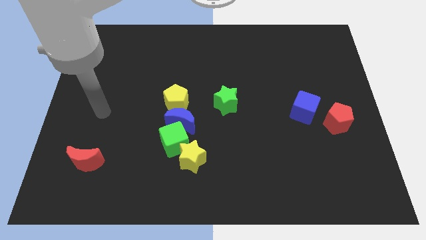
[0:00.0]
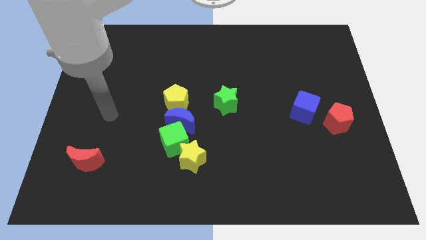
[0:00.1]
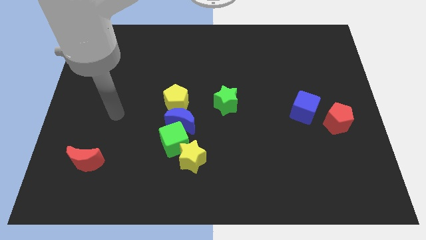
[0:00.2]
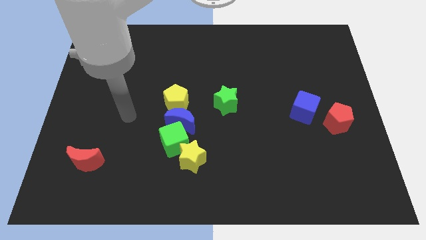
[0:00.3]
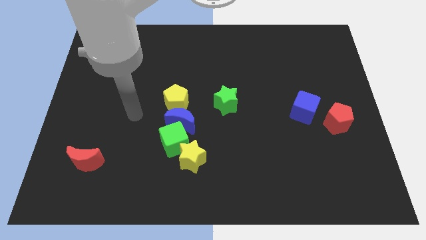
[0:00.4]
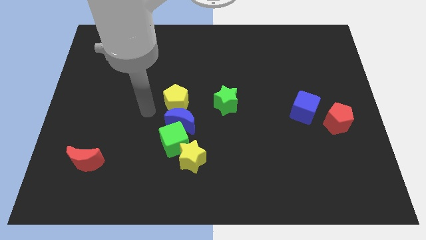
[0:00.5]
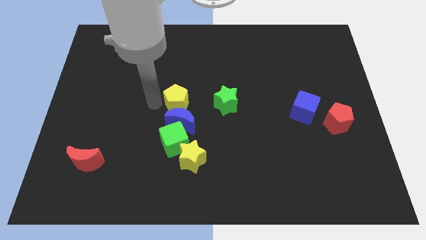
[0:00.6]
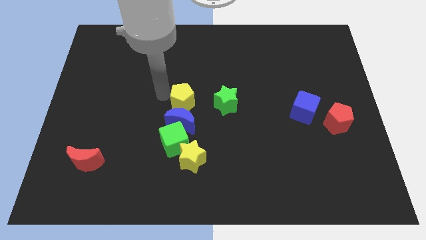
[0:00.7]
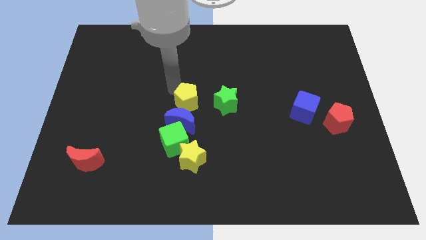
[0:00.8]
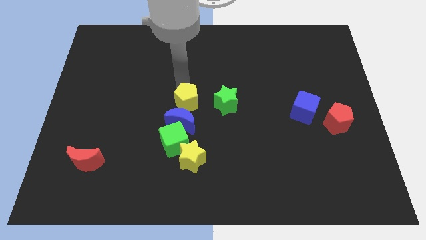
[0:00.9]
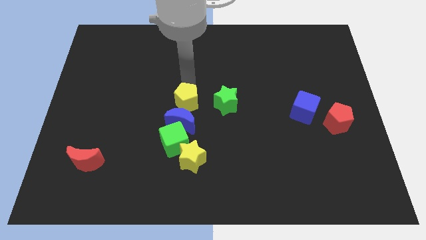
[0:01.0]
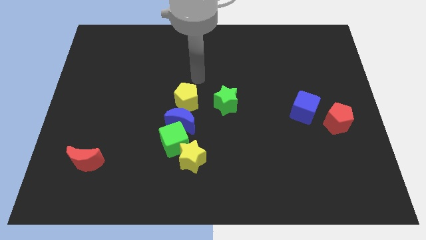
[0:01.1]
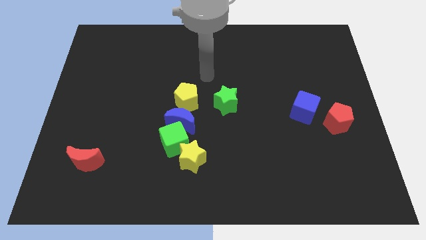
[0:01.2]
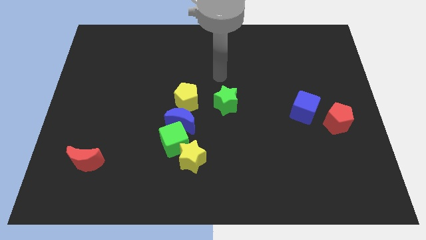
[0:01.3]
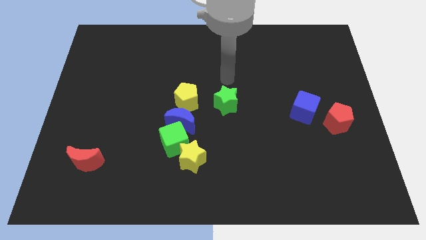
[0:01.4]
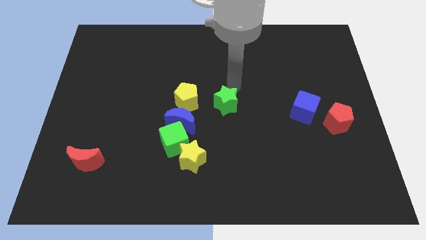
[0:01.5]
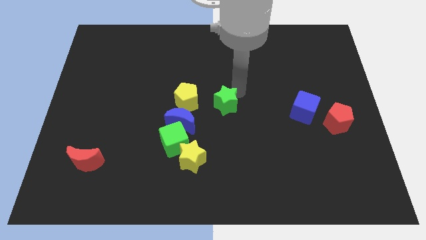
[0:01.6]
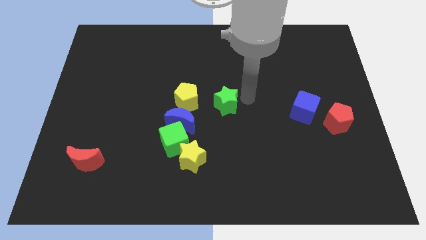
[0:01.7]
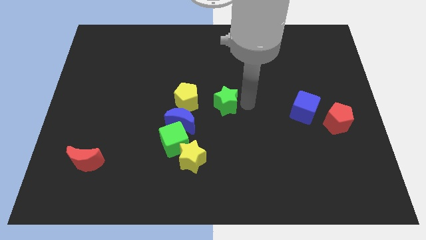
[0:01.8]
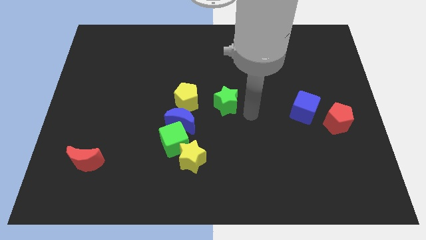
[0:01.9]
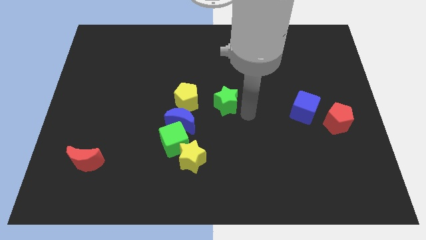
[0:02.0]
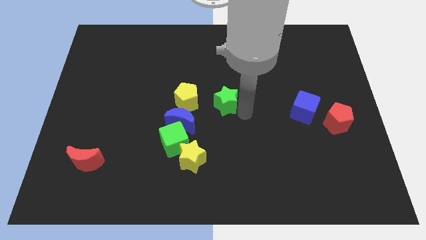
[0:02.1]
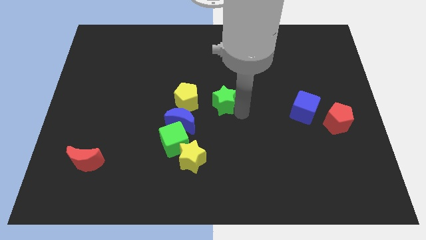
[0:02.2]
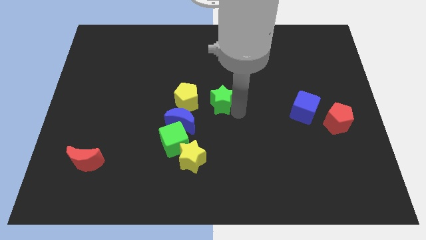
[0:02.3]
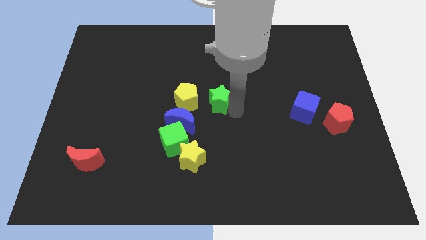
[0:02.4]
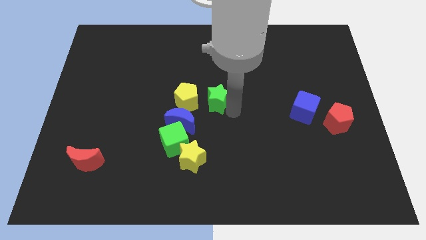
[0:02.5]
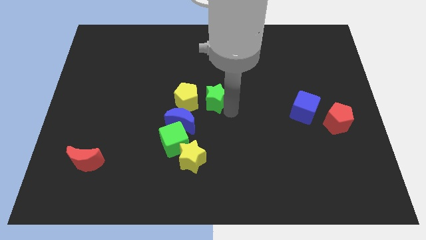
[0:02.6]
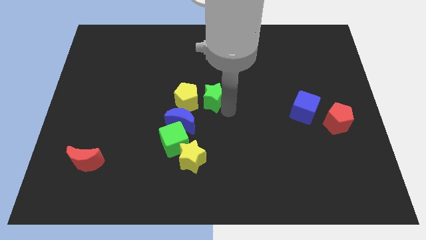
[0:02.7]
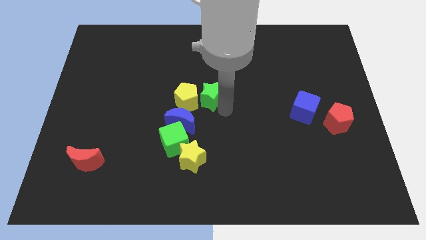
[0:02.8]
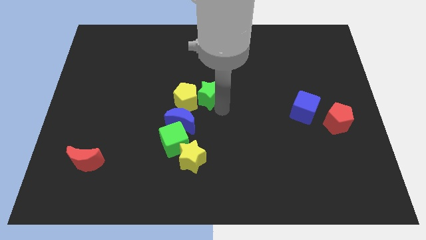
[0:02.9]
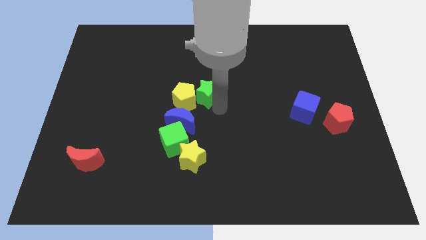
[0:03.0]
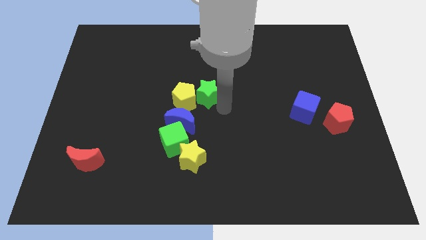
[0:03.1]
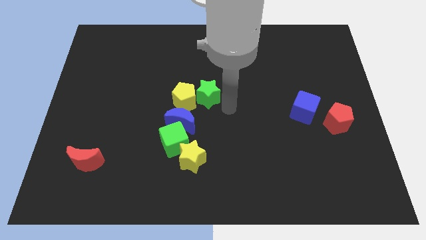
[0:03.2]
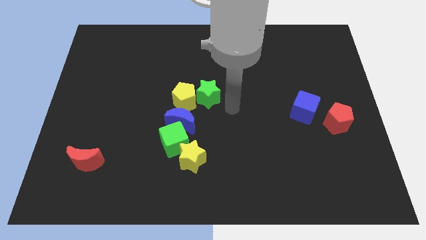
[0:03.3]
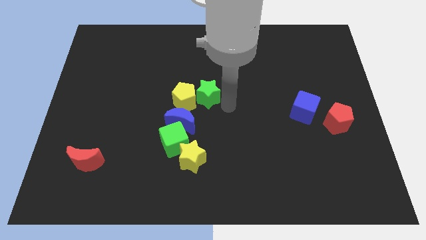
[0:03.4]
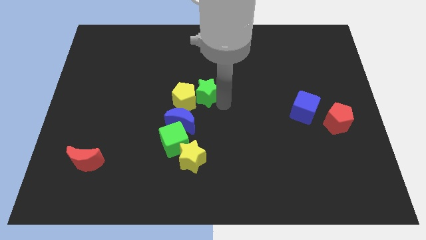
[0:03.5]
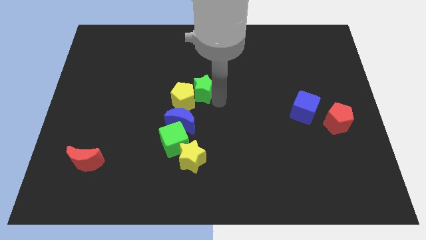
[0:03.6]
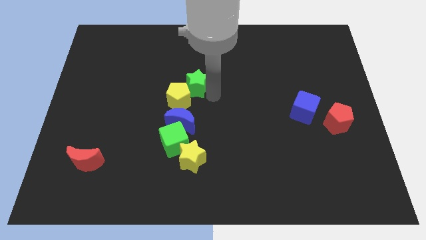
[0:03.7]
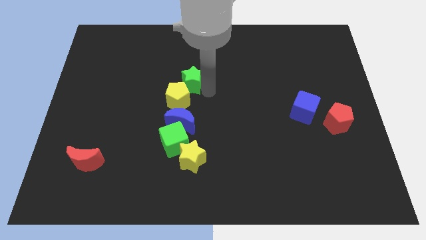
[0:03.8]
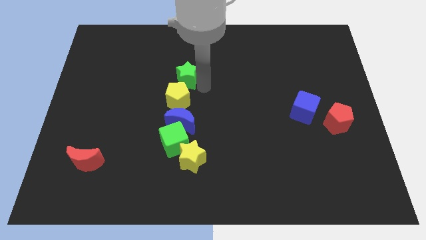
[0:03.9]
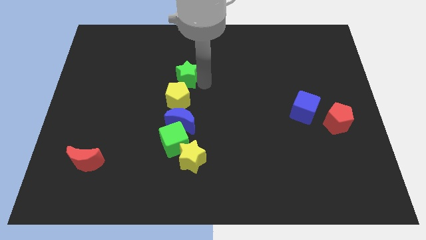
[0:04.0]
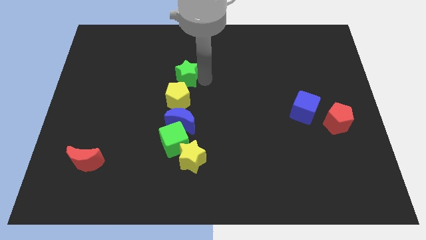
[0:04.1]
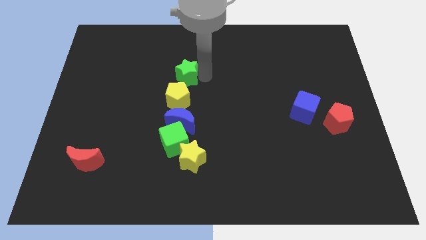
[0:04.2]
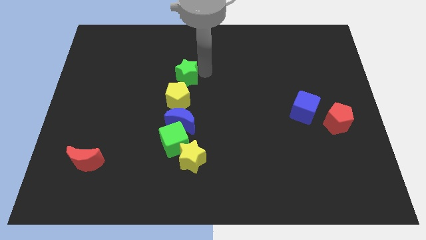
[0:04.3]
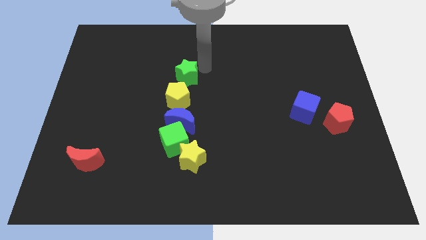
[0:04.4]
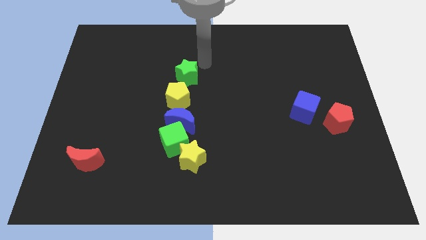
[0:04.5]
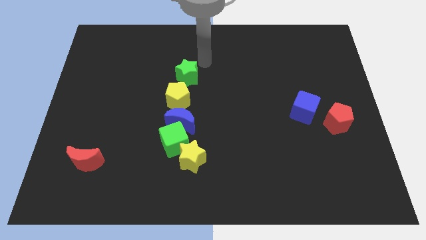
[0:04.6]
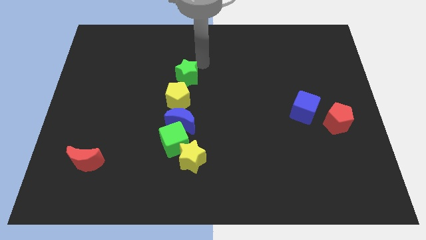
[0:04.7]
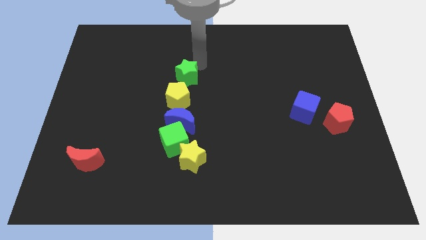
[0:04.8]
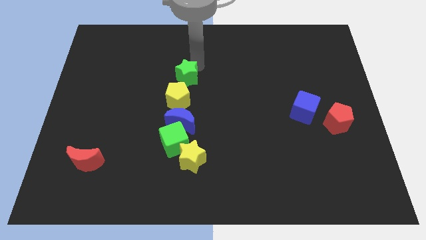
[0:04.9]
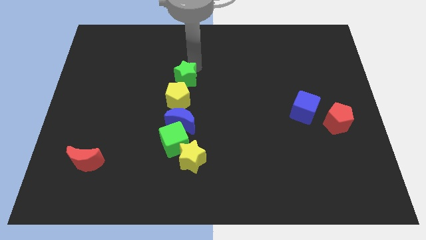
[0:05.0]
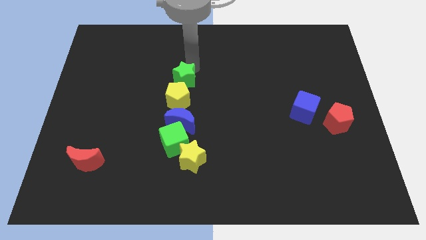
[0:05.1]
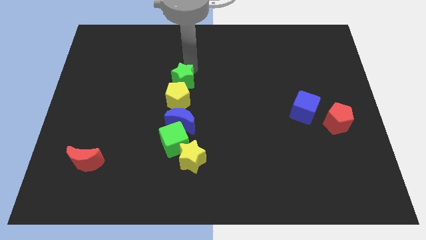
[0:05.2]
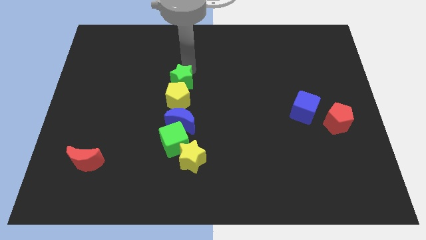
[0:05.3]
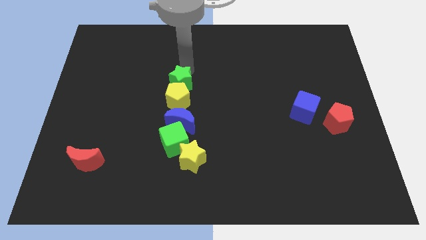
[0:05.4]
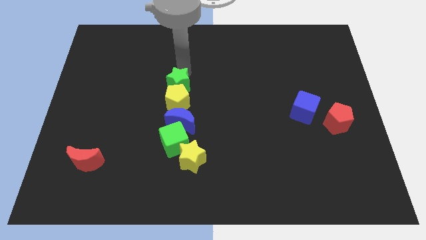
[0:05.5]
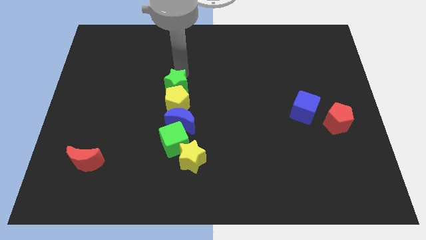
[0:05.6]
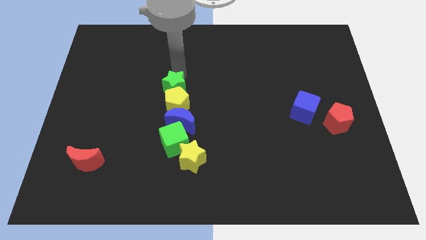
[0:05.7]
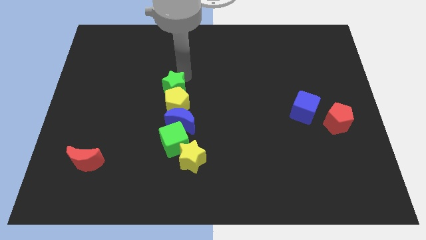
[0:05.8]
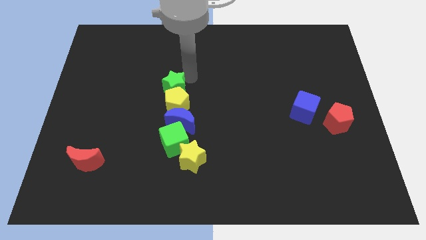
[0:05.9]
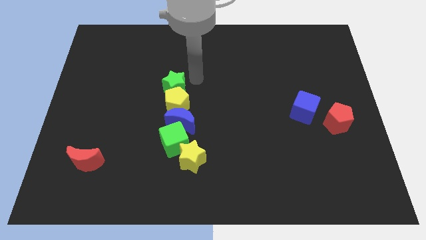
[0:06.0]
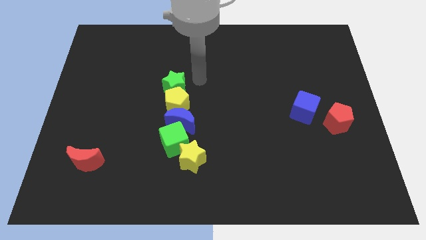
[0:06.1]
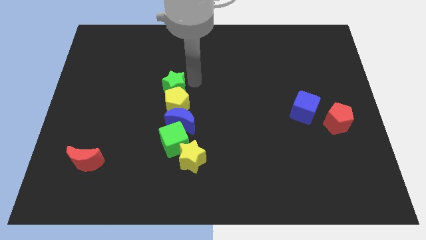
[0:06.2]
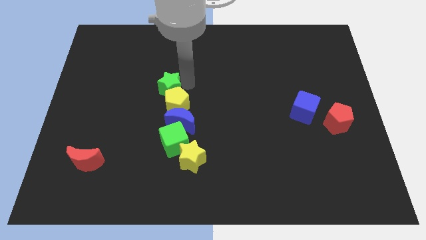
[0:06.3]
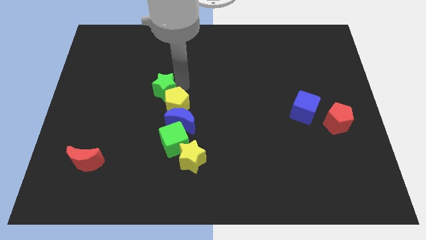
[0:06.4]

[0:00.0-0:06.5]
put the green star to the left side of the yellow pentagon

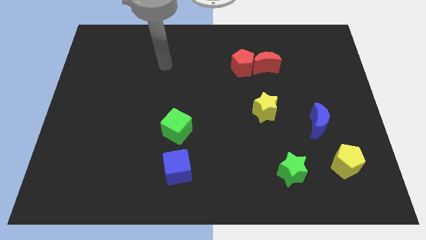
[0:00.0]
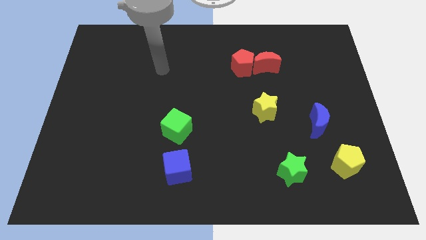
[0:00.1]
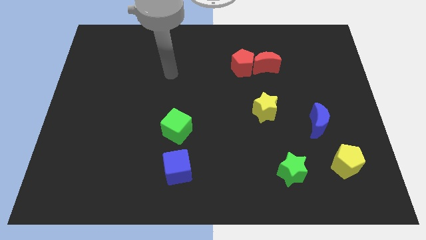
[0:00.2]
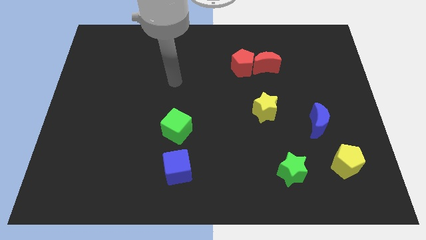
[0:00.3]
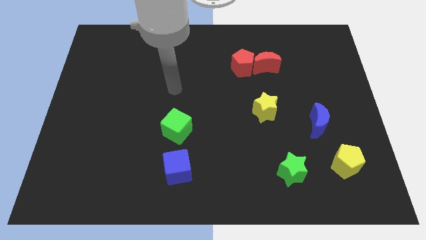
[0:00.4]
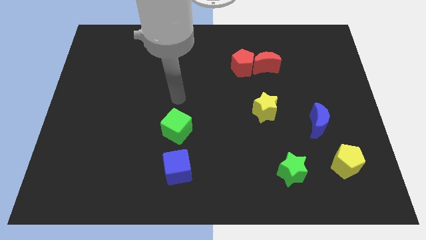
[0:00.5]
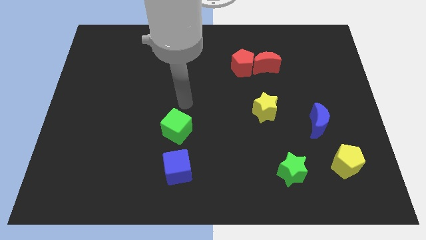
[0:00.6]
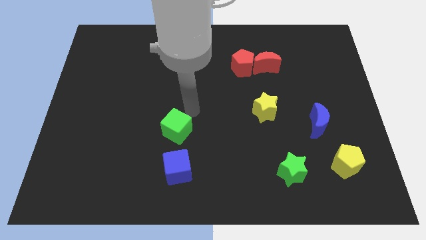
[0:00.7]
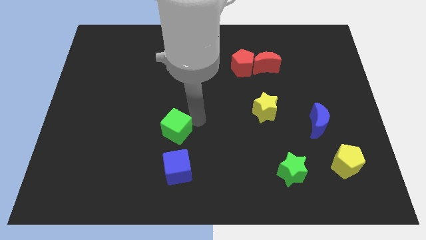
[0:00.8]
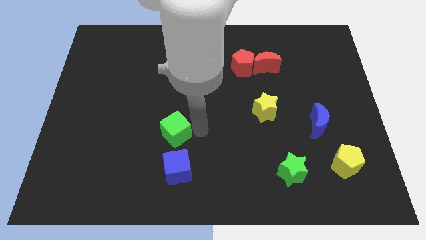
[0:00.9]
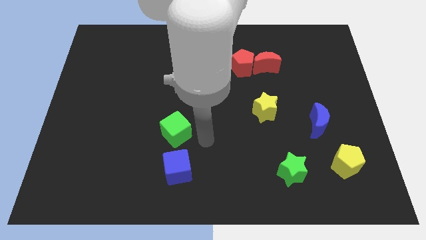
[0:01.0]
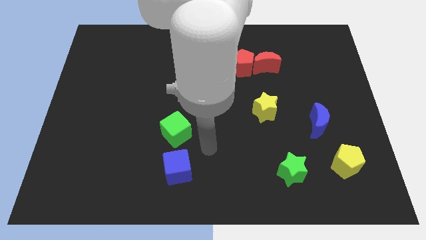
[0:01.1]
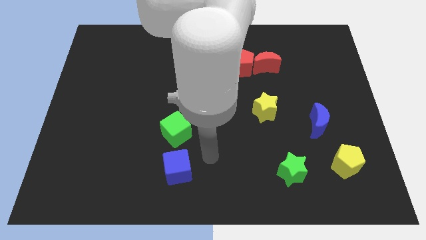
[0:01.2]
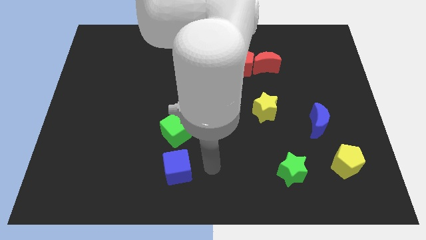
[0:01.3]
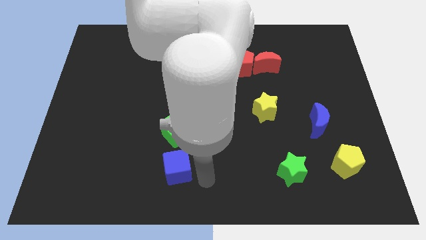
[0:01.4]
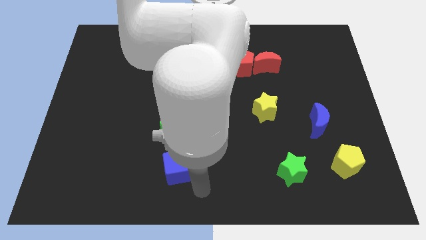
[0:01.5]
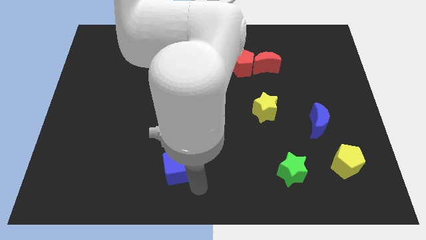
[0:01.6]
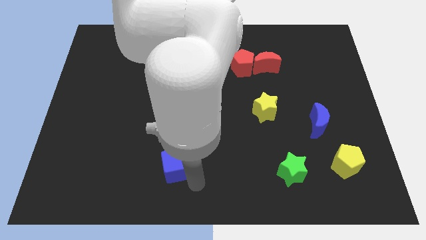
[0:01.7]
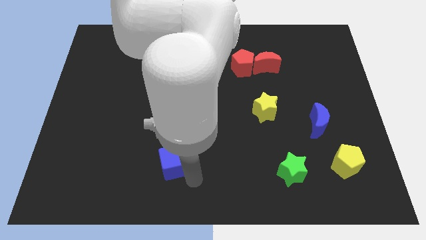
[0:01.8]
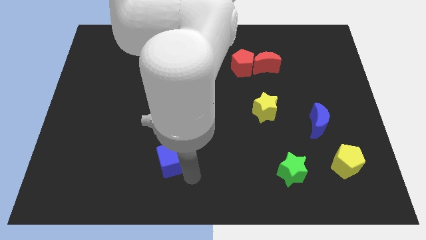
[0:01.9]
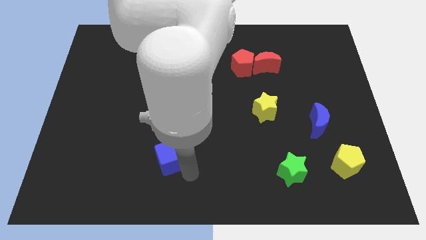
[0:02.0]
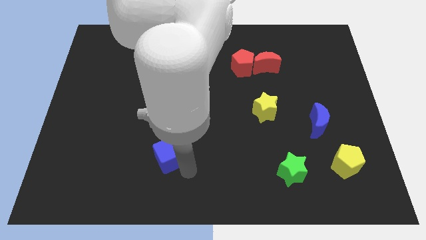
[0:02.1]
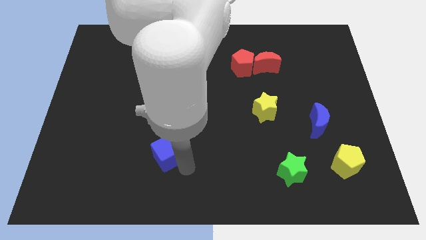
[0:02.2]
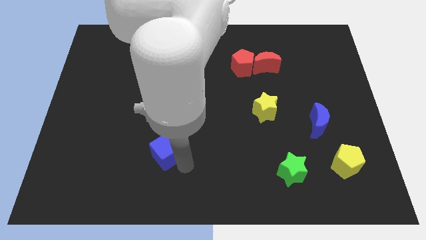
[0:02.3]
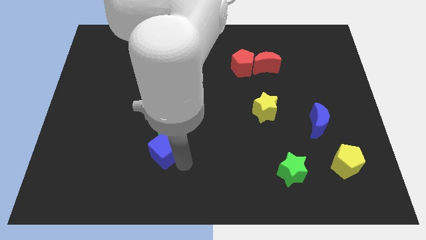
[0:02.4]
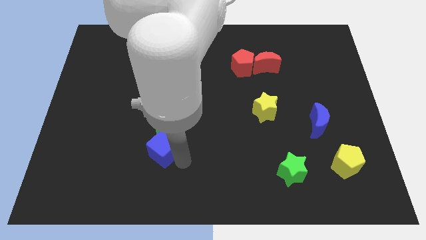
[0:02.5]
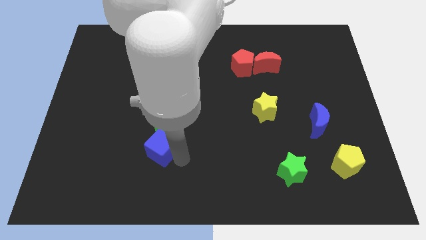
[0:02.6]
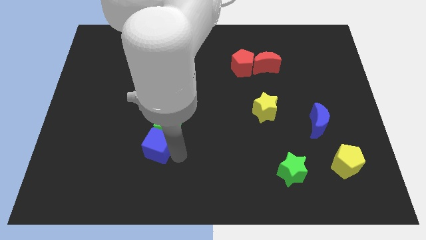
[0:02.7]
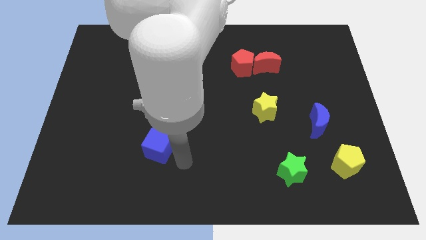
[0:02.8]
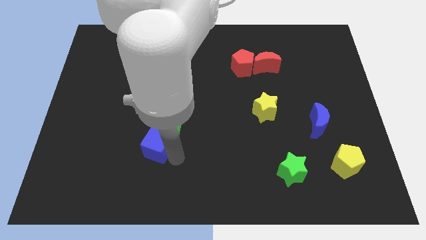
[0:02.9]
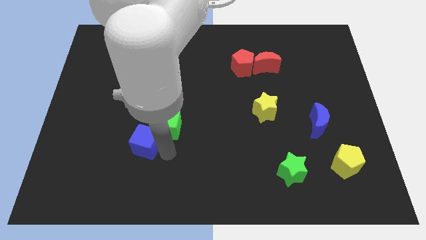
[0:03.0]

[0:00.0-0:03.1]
slide the blue cube to the left of the green cube
